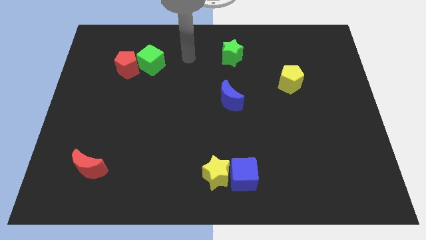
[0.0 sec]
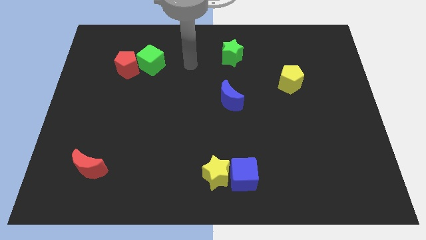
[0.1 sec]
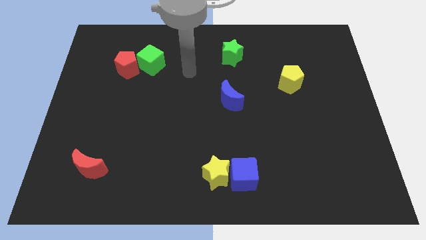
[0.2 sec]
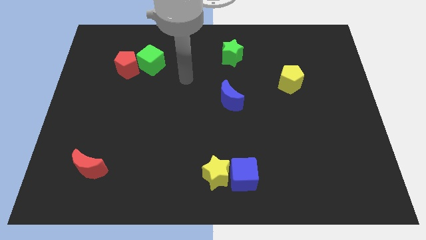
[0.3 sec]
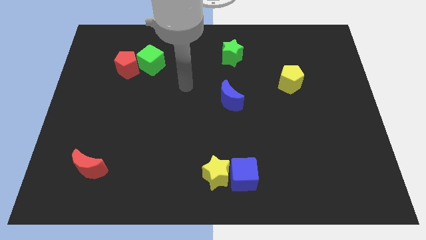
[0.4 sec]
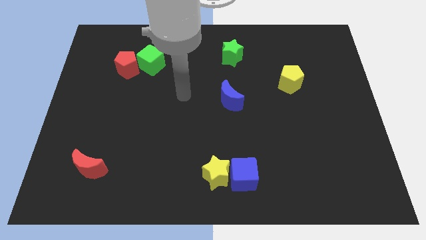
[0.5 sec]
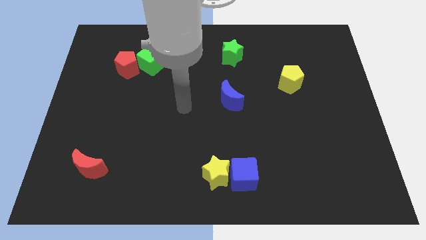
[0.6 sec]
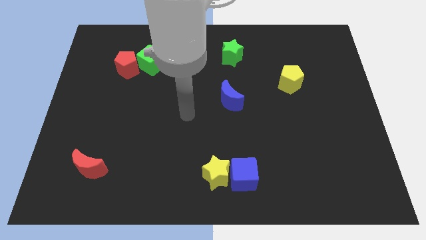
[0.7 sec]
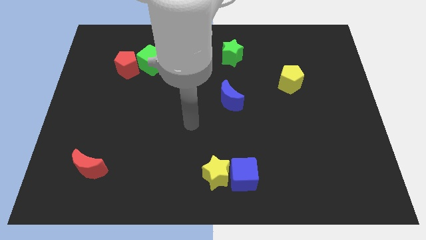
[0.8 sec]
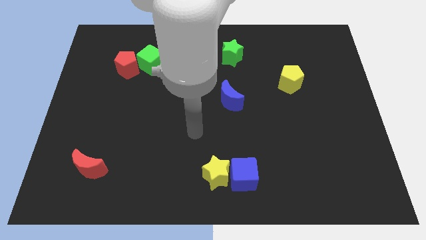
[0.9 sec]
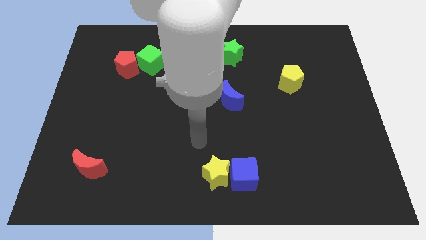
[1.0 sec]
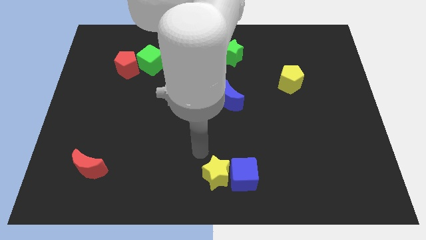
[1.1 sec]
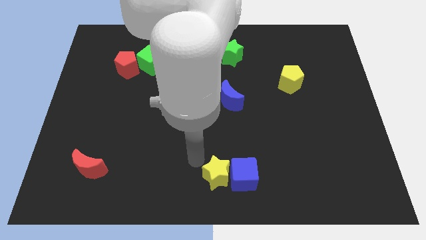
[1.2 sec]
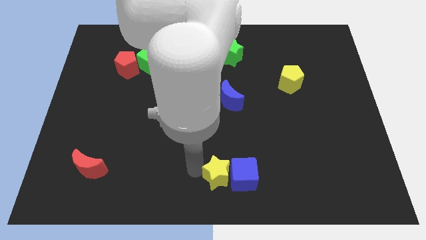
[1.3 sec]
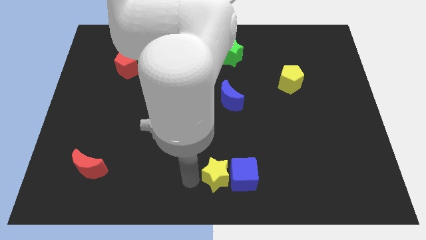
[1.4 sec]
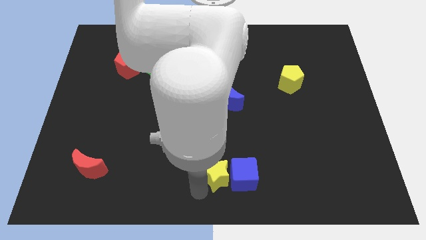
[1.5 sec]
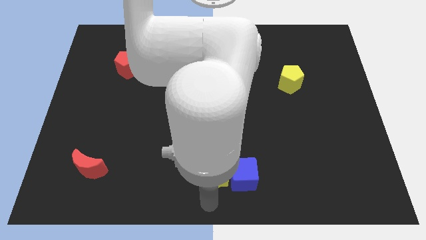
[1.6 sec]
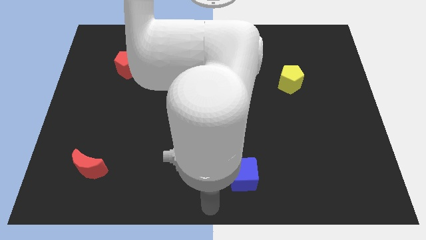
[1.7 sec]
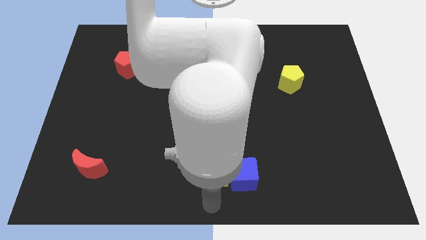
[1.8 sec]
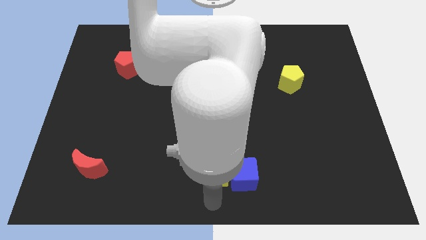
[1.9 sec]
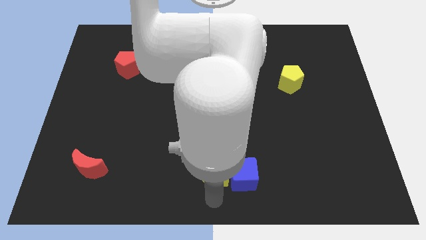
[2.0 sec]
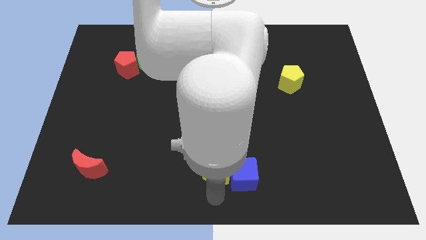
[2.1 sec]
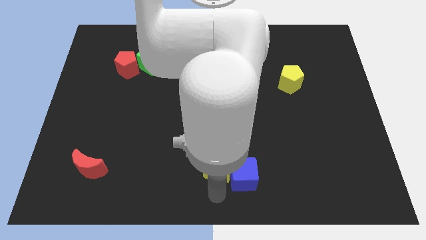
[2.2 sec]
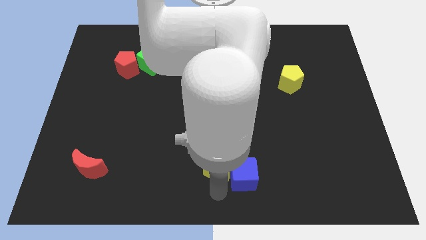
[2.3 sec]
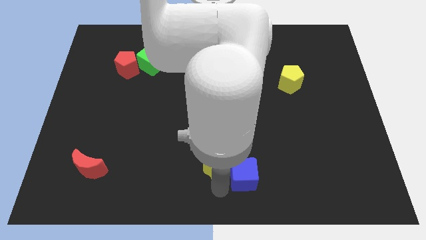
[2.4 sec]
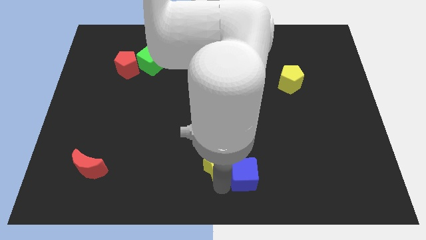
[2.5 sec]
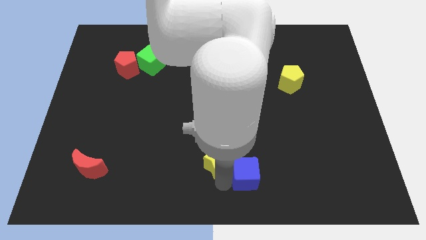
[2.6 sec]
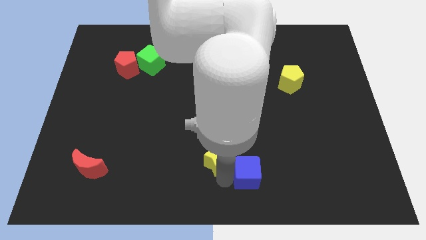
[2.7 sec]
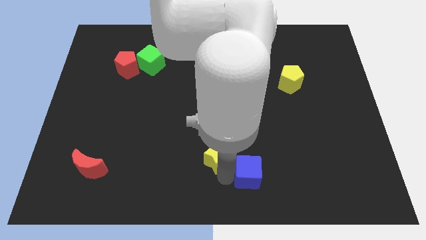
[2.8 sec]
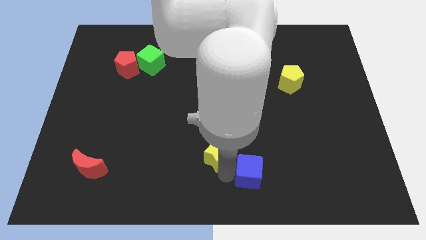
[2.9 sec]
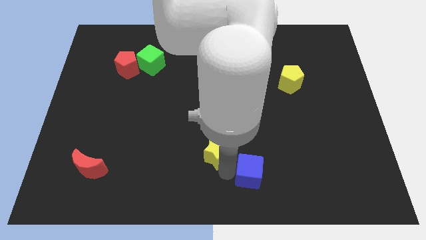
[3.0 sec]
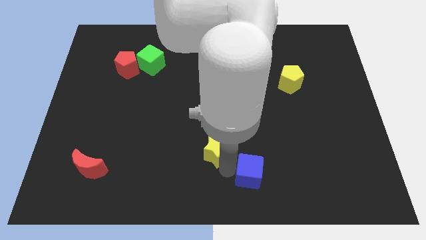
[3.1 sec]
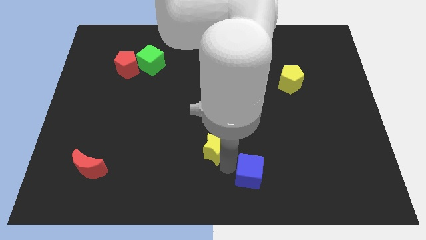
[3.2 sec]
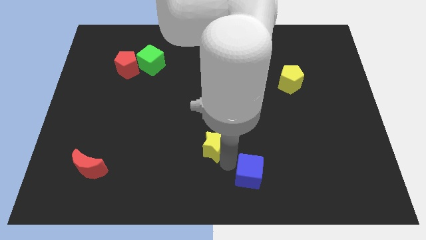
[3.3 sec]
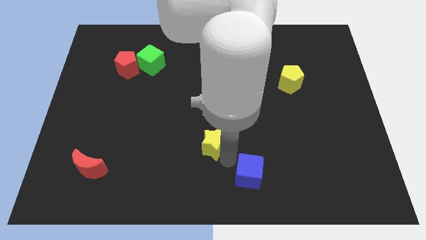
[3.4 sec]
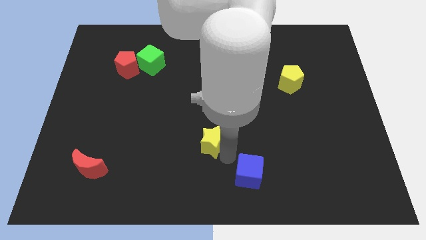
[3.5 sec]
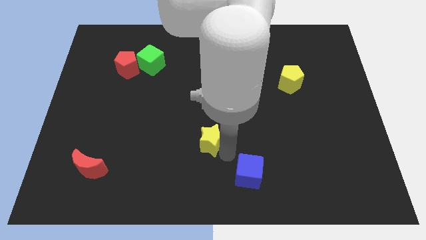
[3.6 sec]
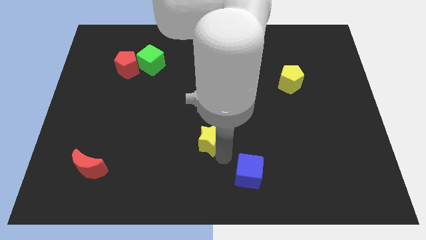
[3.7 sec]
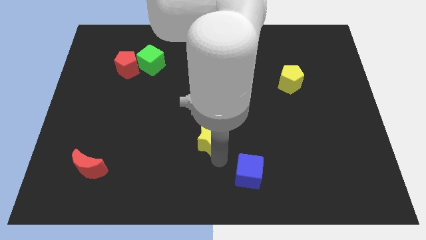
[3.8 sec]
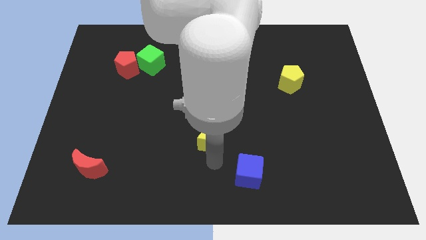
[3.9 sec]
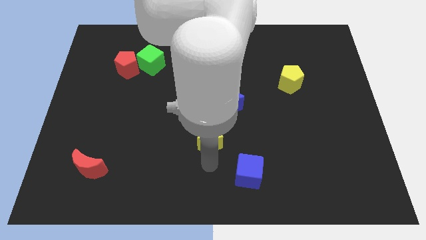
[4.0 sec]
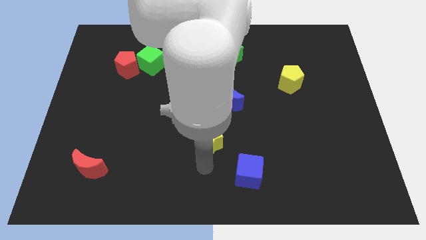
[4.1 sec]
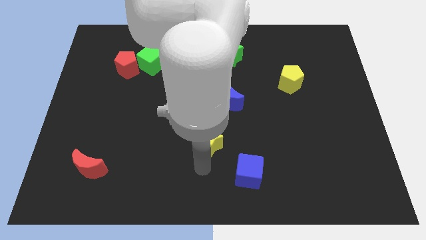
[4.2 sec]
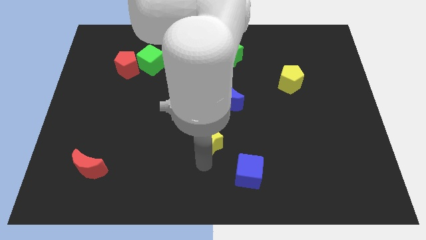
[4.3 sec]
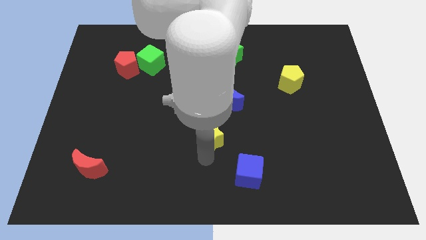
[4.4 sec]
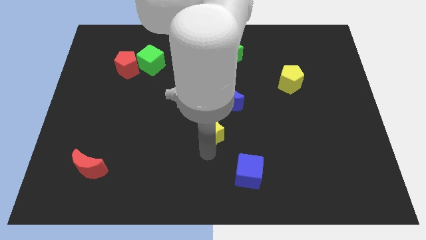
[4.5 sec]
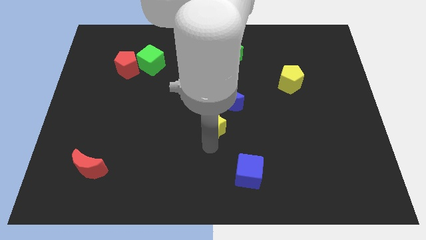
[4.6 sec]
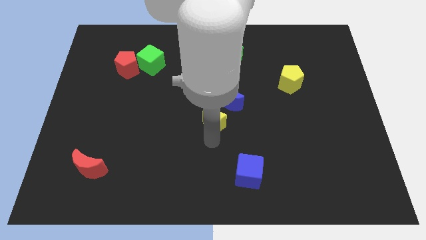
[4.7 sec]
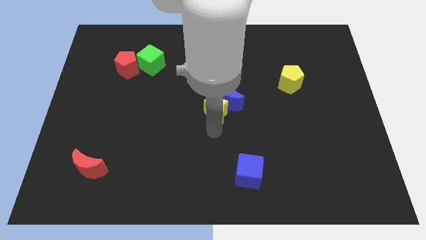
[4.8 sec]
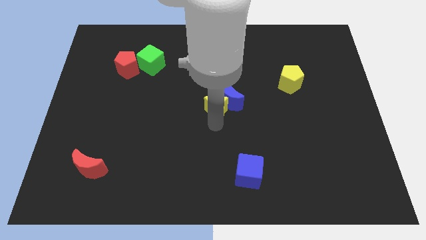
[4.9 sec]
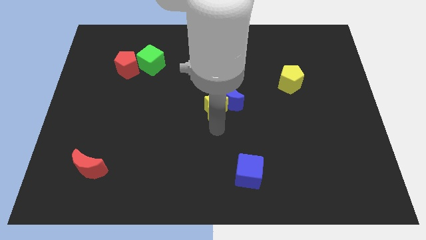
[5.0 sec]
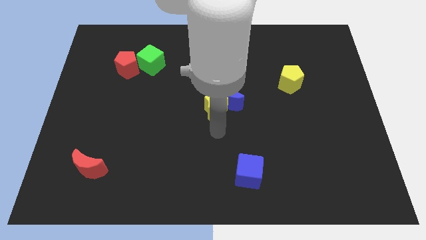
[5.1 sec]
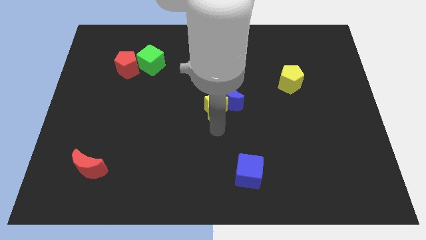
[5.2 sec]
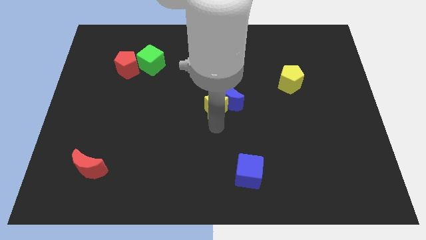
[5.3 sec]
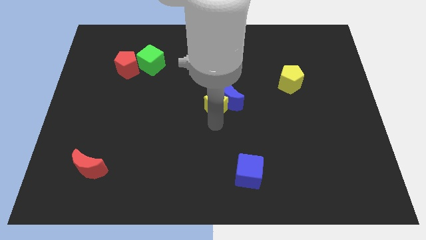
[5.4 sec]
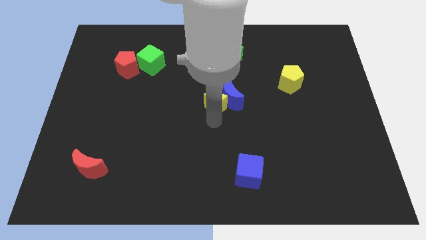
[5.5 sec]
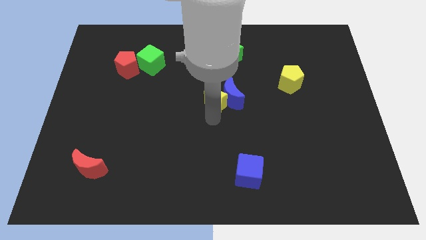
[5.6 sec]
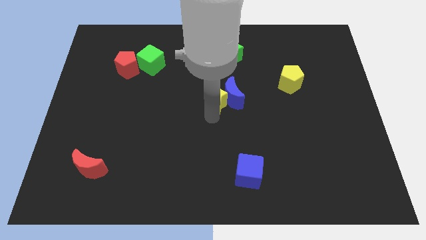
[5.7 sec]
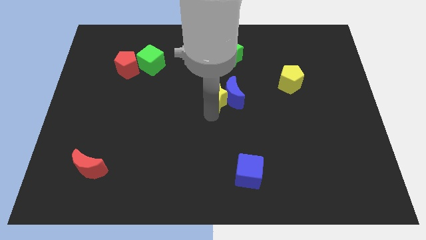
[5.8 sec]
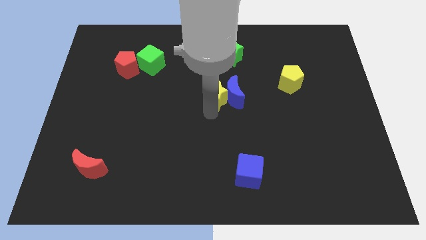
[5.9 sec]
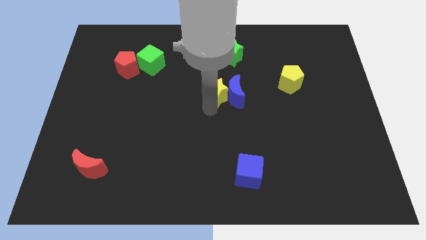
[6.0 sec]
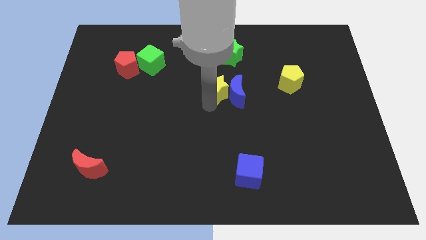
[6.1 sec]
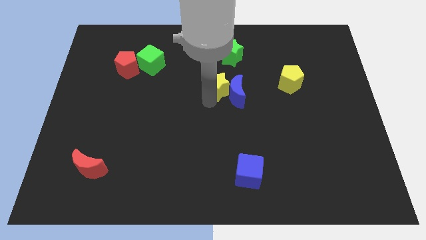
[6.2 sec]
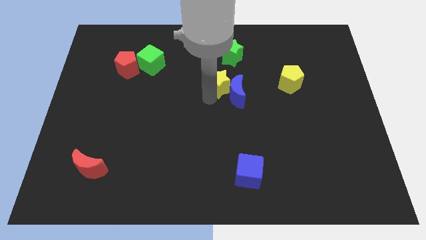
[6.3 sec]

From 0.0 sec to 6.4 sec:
move the yellow star to the top of the blue moon

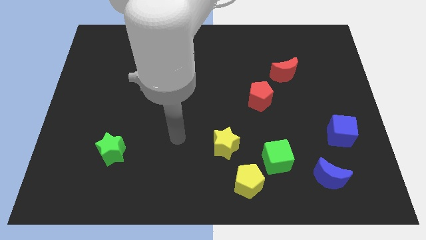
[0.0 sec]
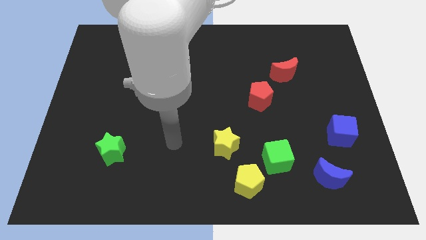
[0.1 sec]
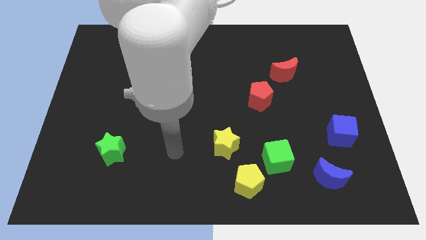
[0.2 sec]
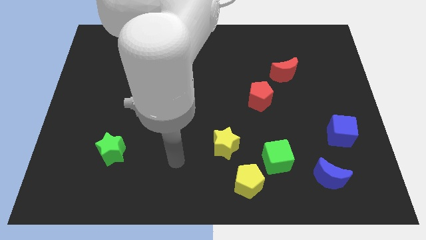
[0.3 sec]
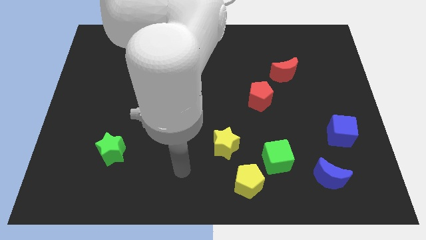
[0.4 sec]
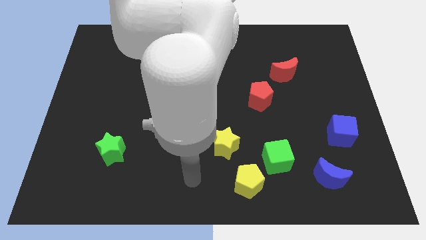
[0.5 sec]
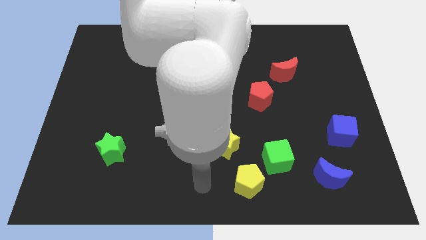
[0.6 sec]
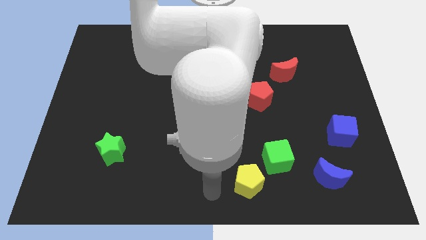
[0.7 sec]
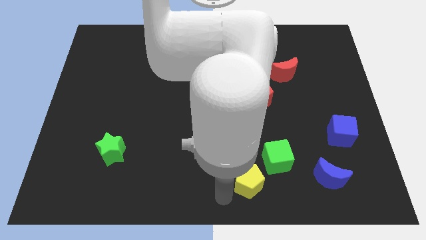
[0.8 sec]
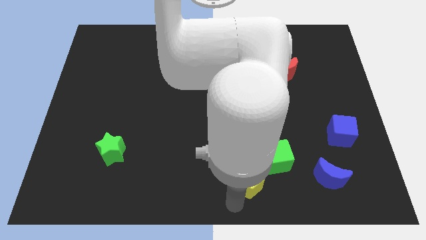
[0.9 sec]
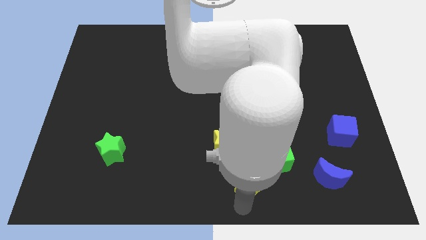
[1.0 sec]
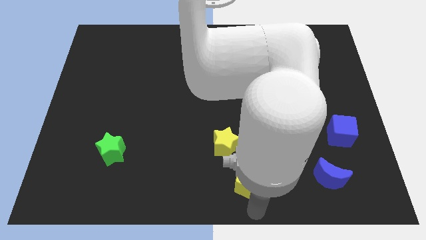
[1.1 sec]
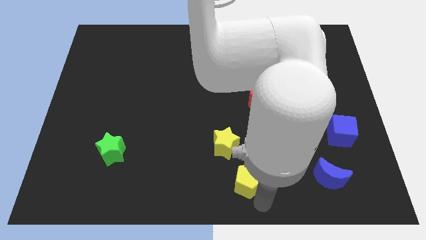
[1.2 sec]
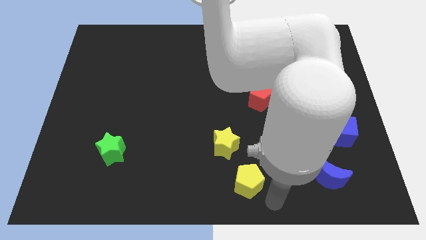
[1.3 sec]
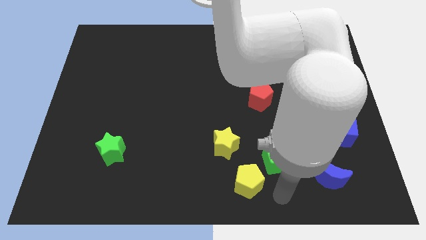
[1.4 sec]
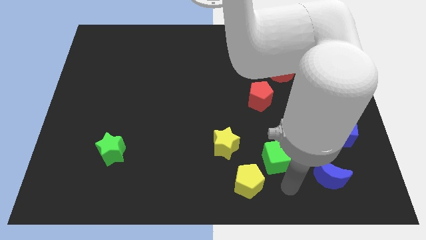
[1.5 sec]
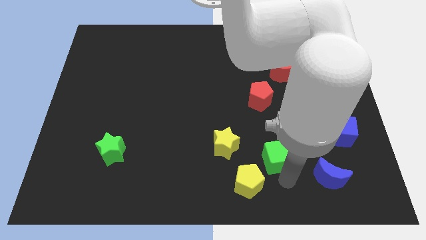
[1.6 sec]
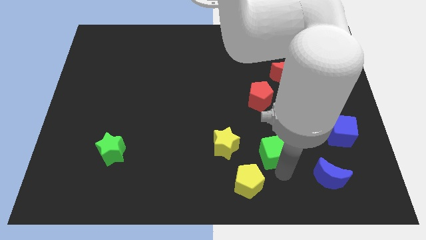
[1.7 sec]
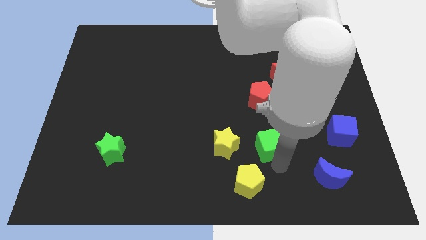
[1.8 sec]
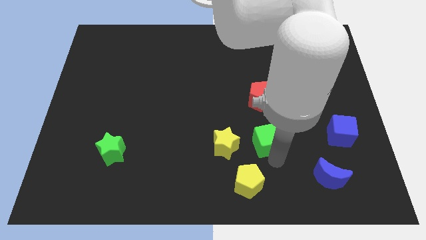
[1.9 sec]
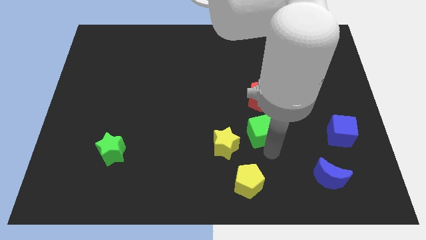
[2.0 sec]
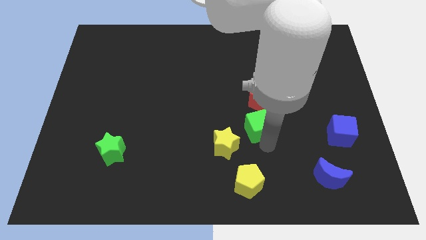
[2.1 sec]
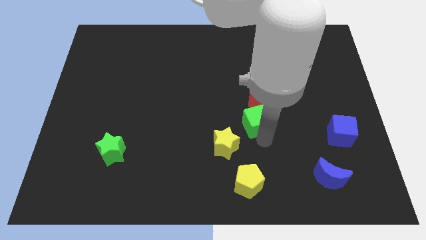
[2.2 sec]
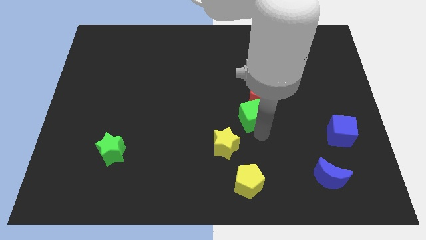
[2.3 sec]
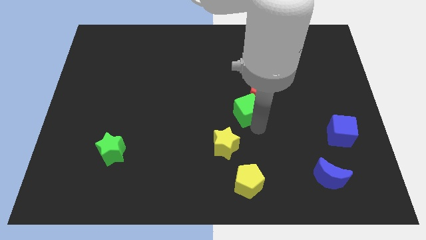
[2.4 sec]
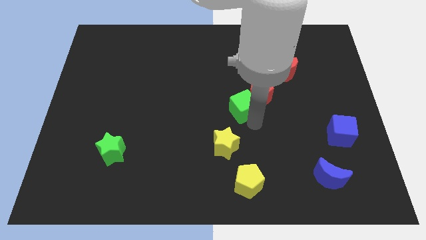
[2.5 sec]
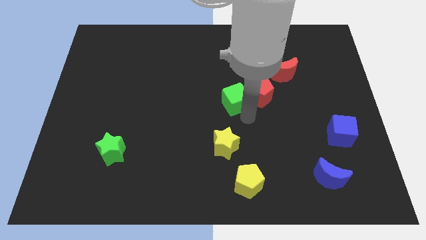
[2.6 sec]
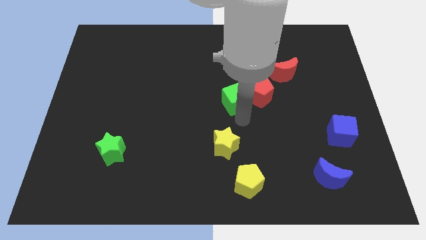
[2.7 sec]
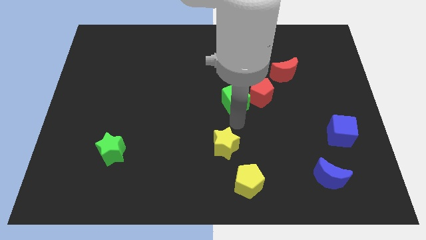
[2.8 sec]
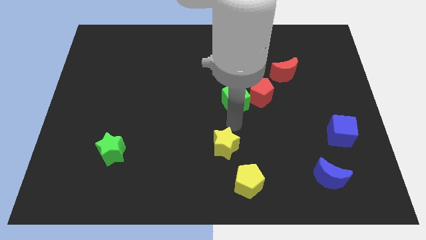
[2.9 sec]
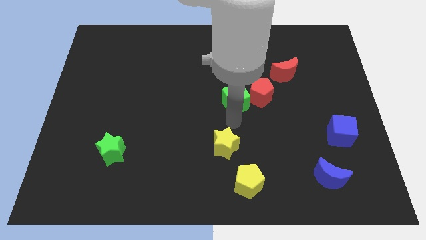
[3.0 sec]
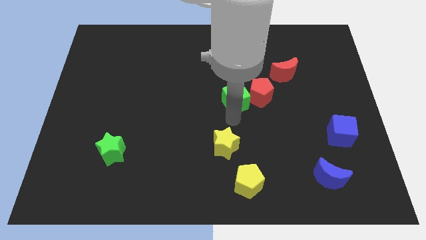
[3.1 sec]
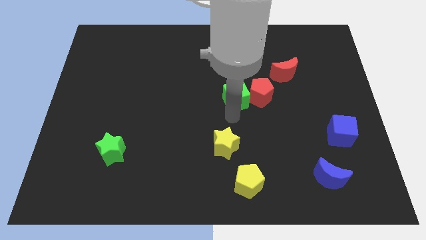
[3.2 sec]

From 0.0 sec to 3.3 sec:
move the green cube to the top left of the red pentagon
